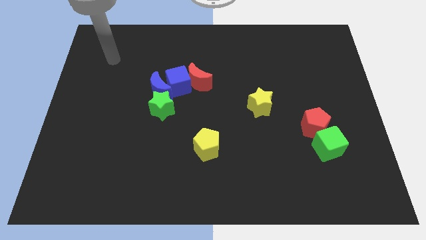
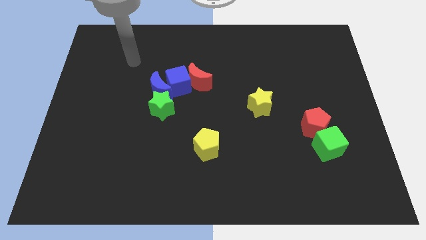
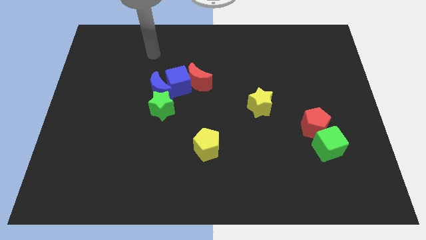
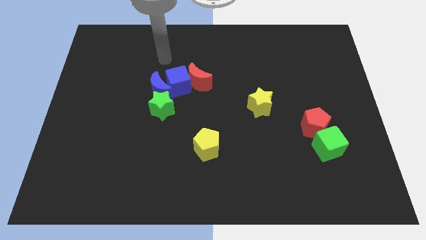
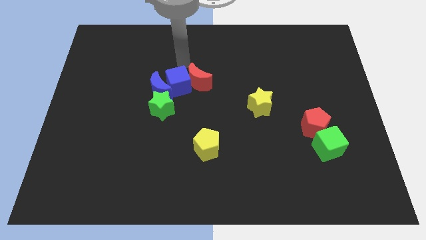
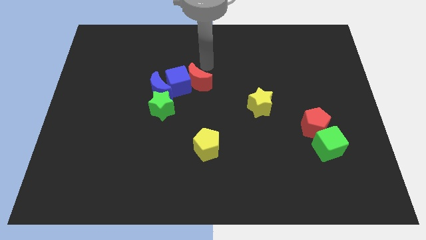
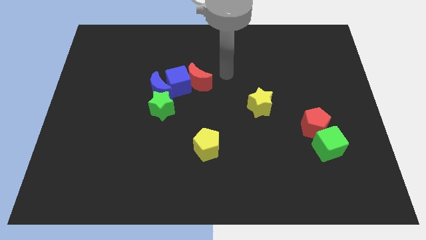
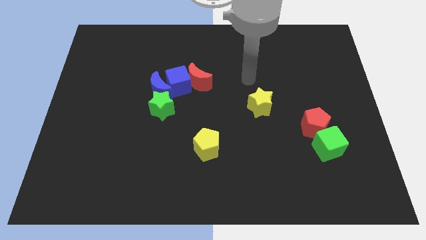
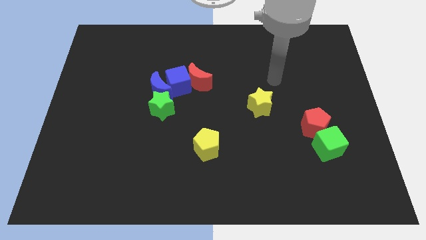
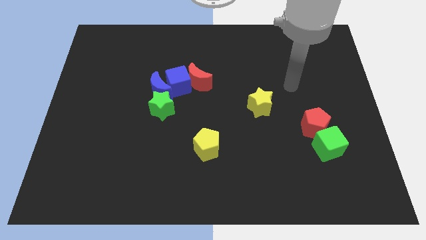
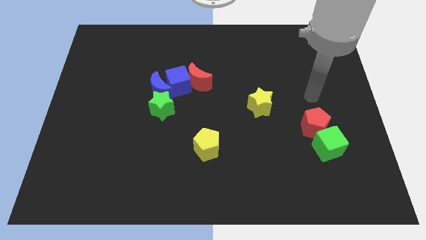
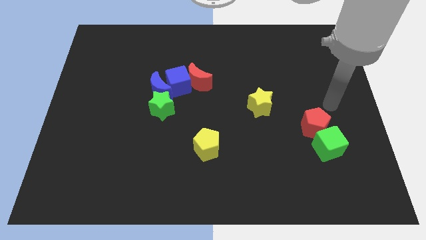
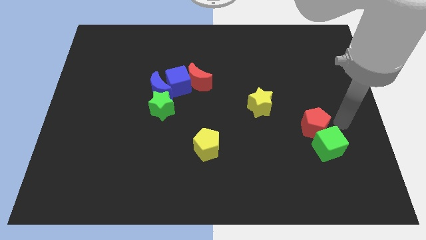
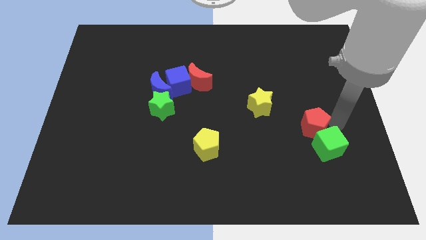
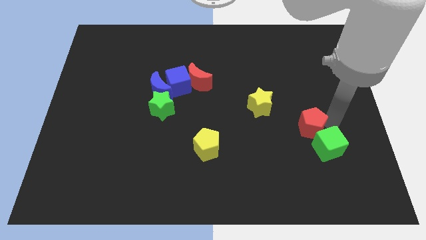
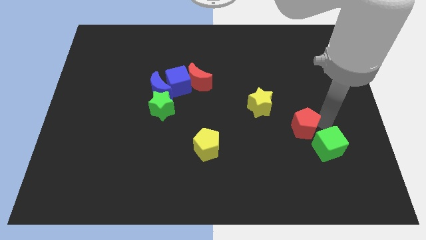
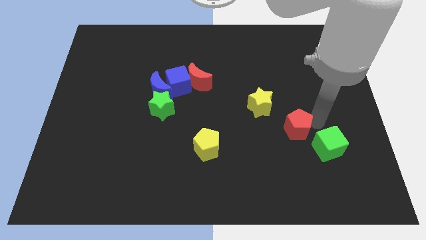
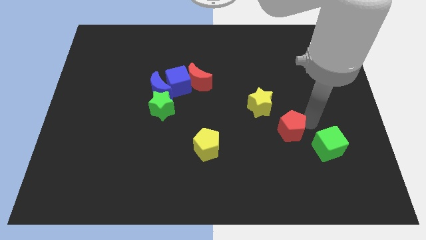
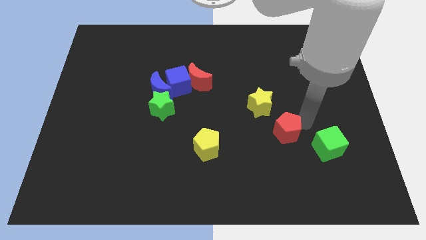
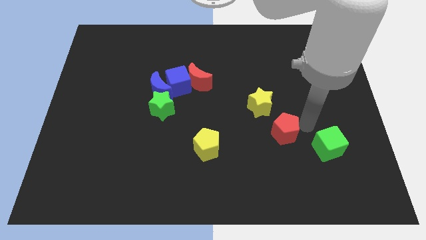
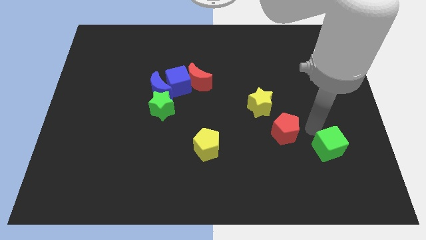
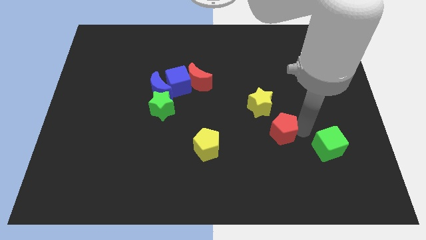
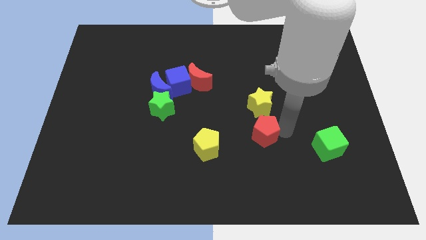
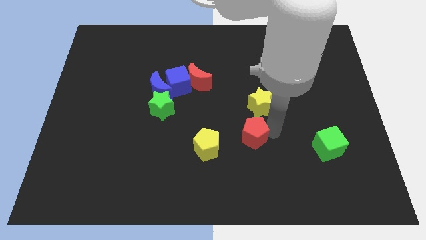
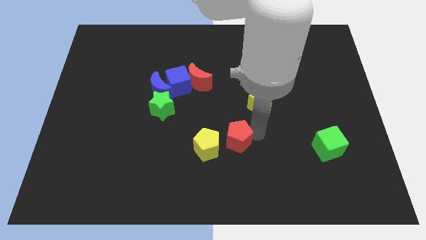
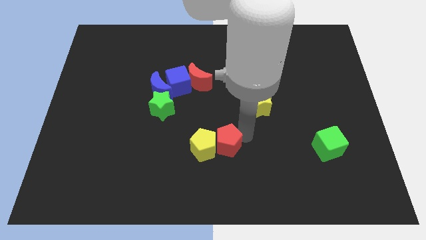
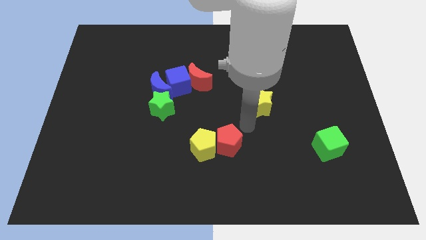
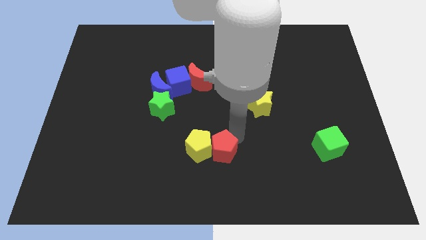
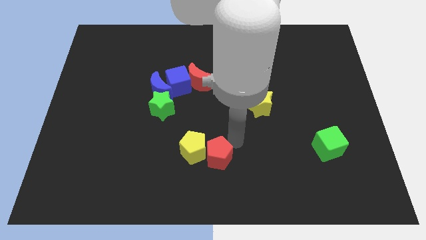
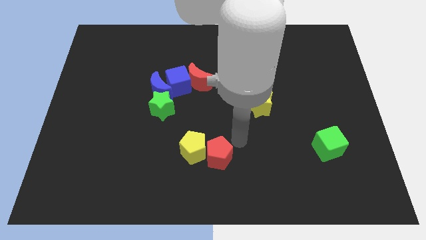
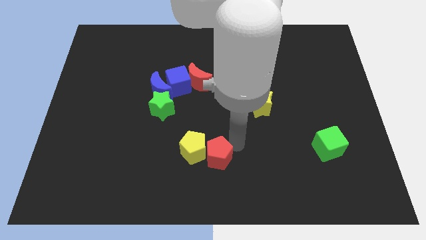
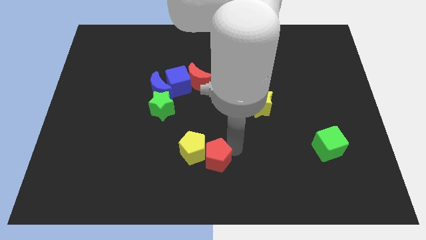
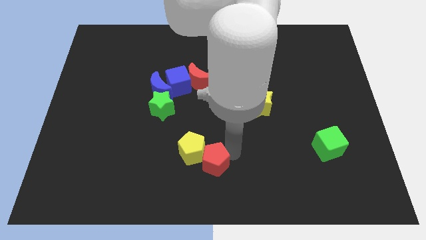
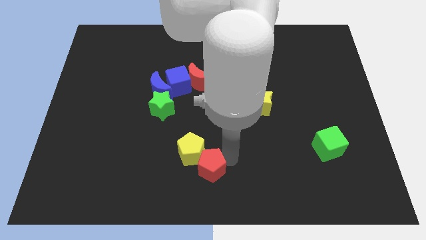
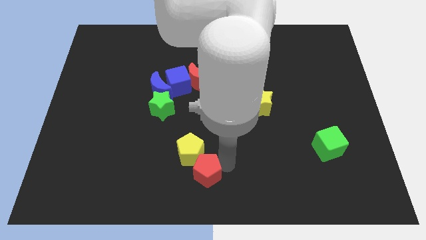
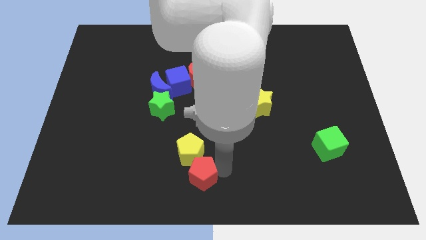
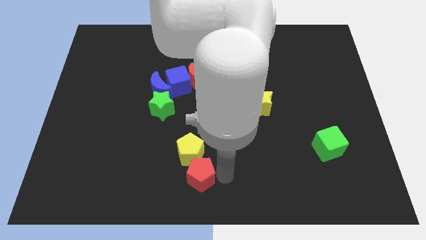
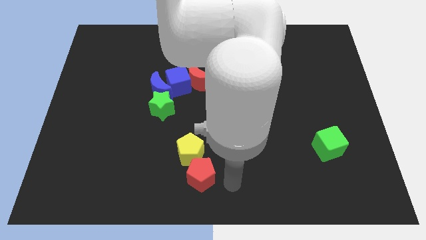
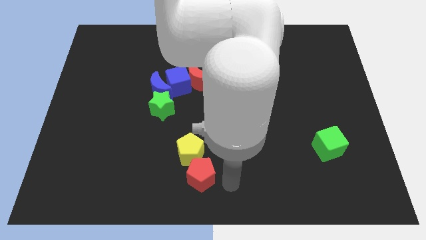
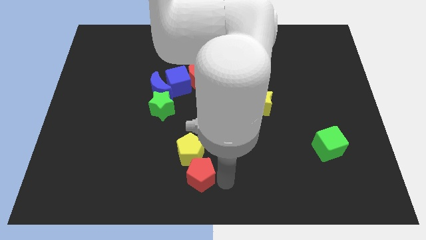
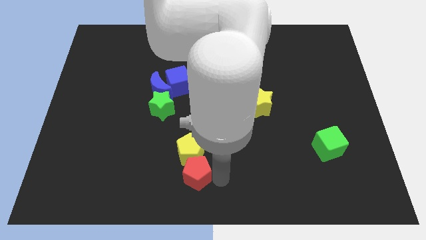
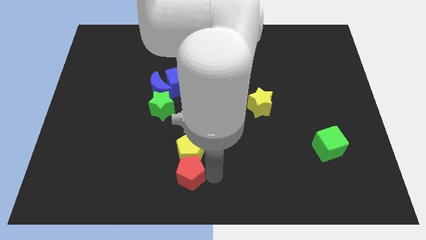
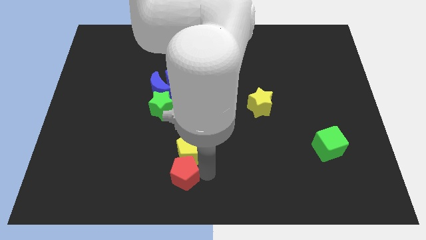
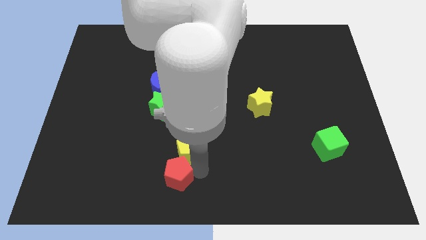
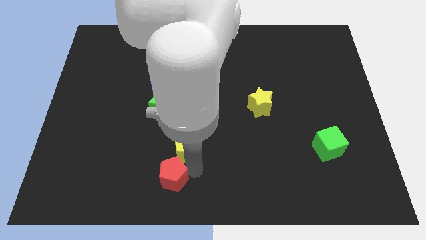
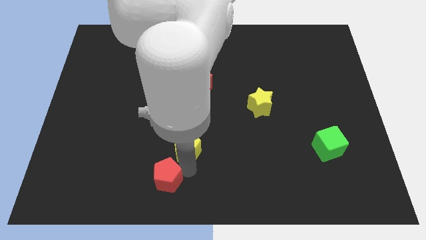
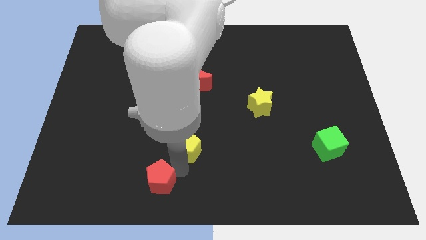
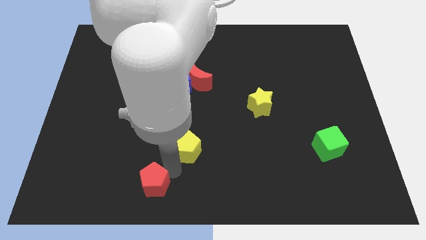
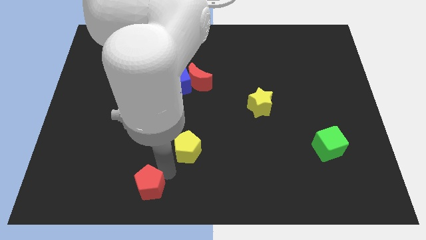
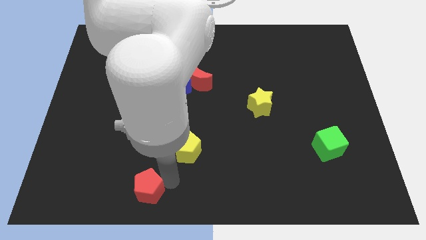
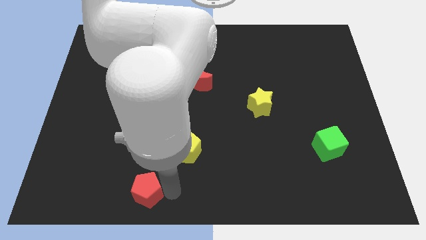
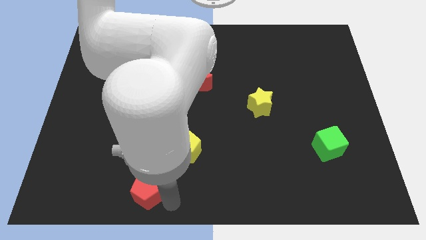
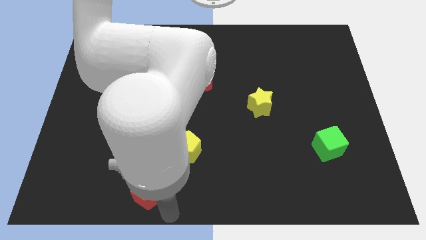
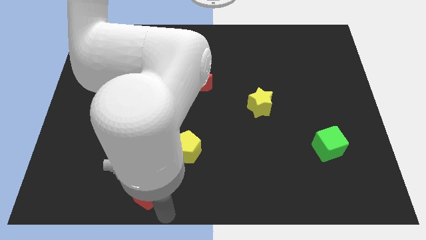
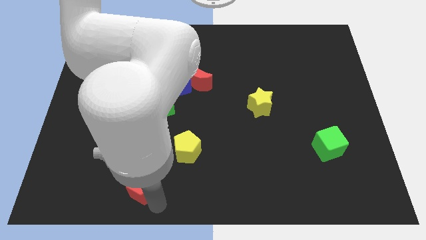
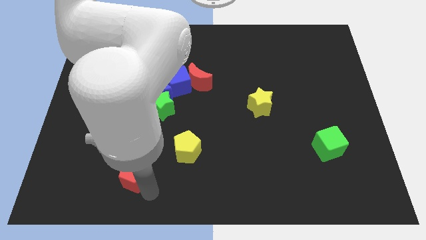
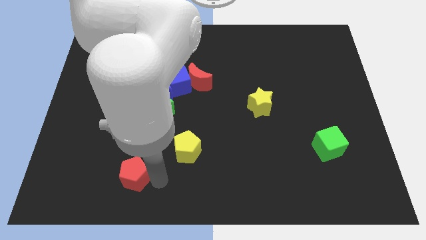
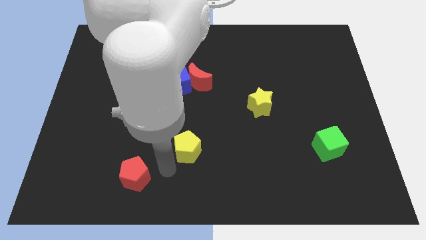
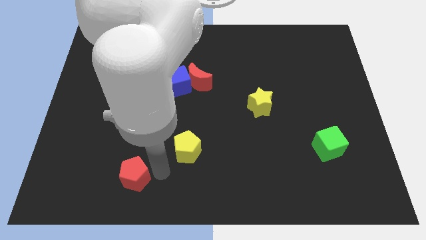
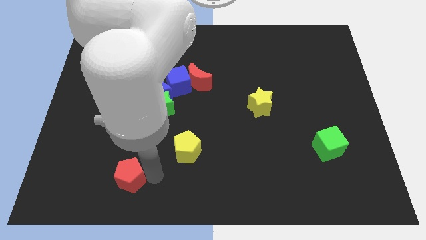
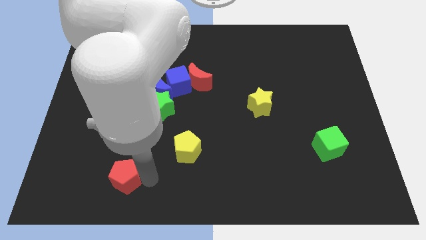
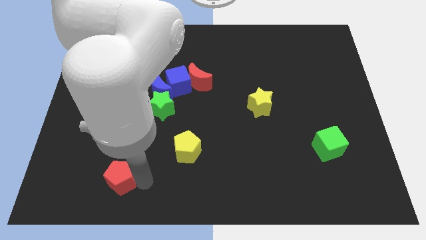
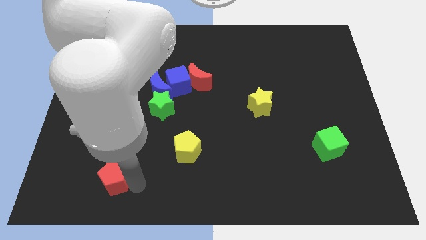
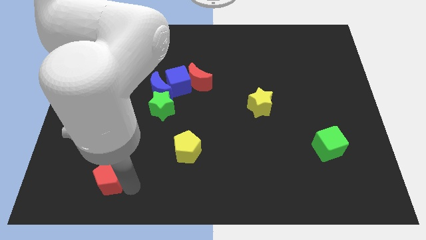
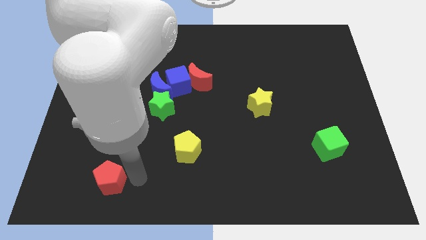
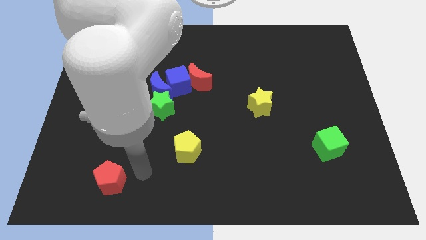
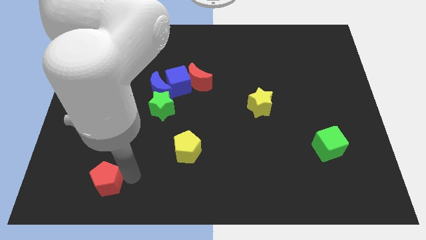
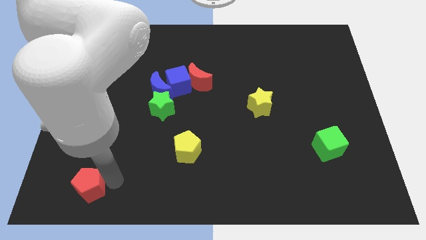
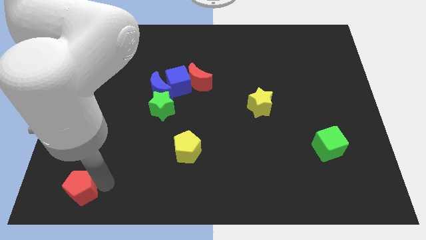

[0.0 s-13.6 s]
put the red pentagon to the bottom left corner
